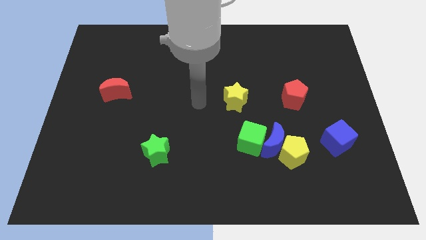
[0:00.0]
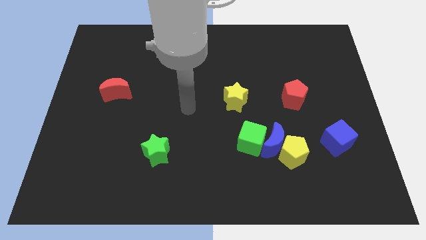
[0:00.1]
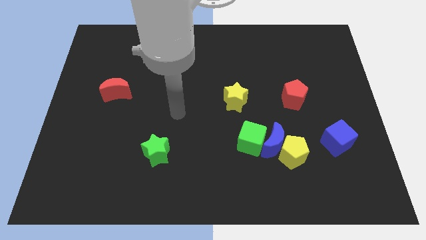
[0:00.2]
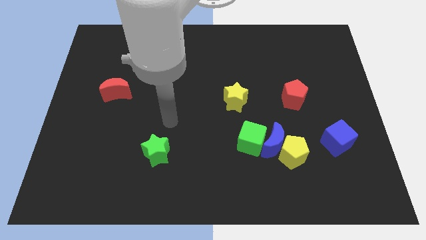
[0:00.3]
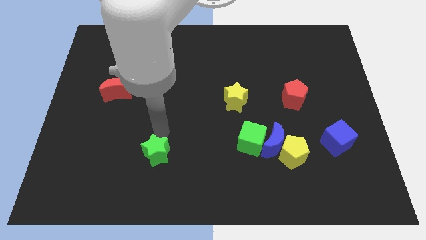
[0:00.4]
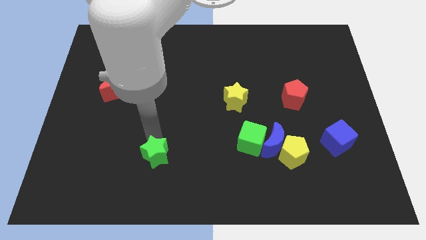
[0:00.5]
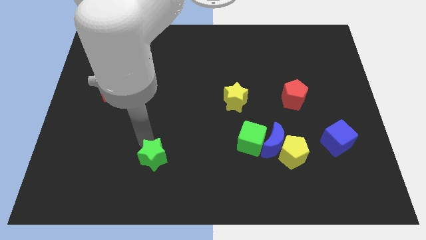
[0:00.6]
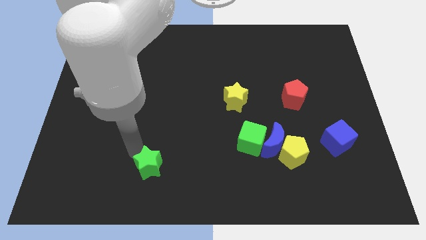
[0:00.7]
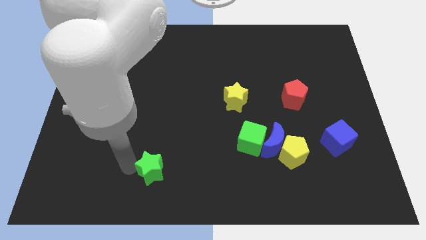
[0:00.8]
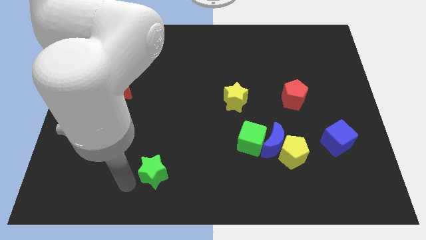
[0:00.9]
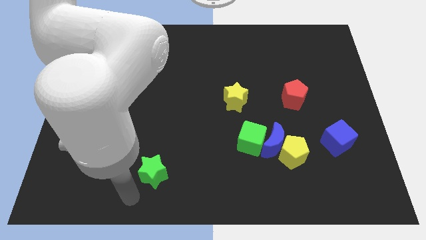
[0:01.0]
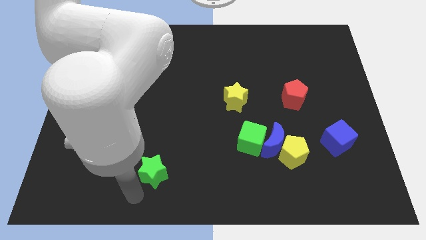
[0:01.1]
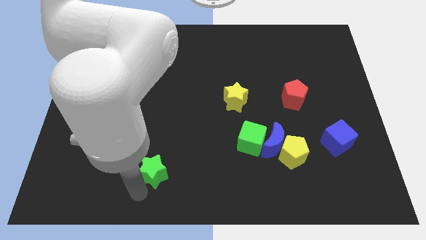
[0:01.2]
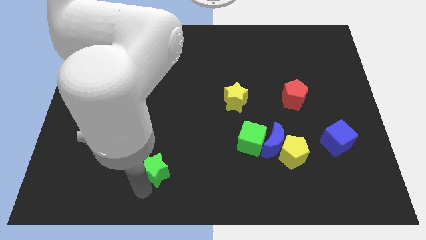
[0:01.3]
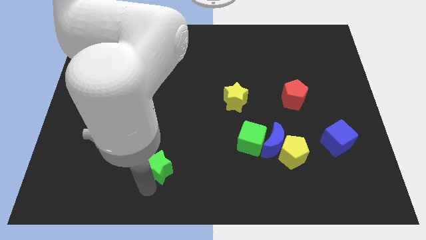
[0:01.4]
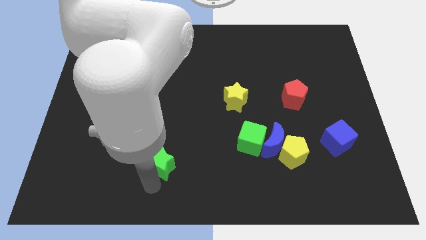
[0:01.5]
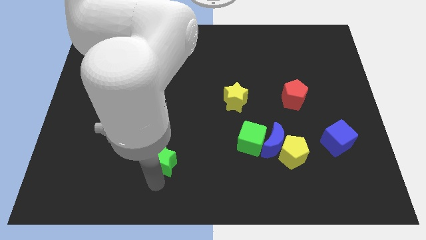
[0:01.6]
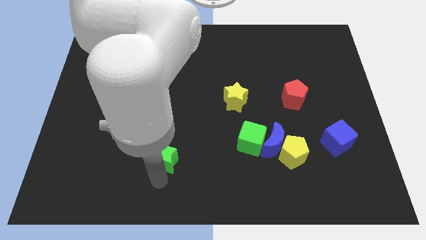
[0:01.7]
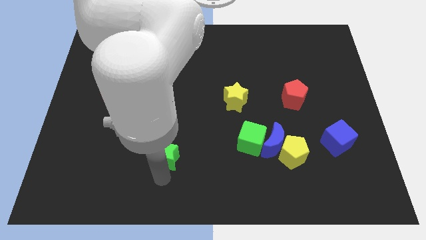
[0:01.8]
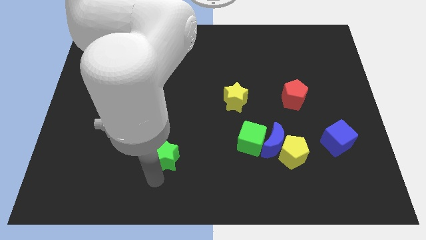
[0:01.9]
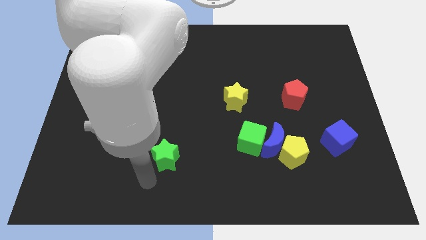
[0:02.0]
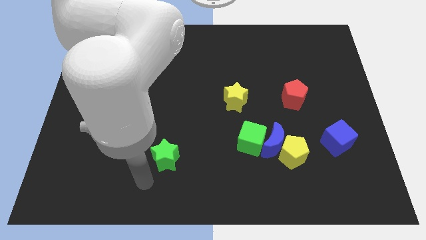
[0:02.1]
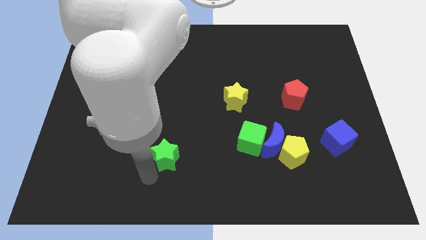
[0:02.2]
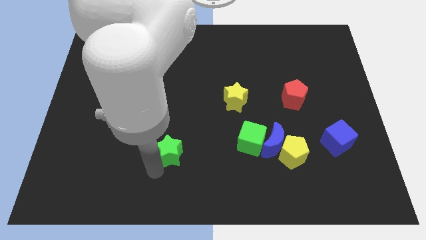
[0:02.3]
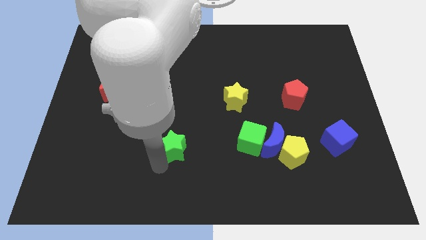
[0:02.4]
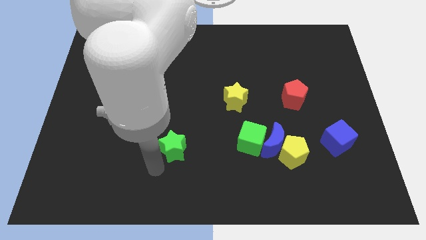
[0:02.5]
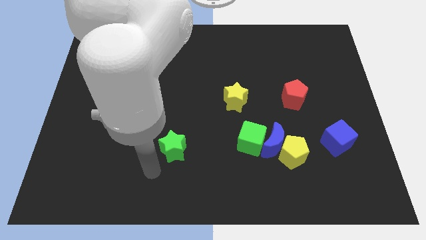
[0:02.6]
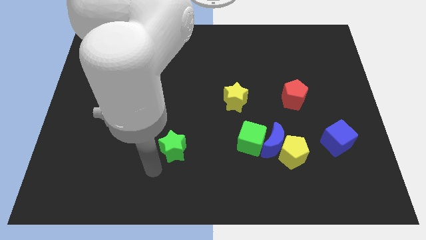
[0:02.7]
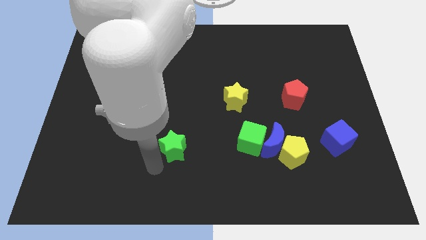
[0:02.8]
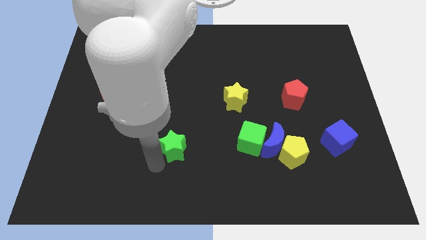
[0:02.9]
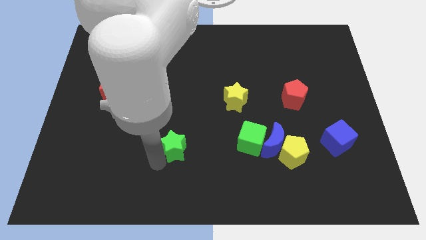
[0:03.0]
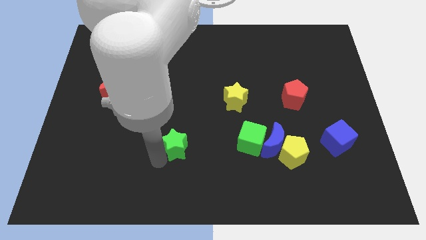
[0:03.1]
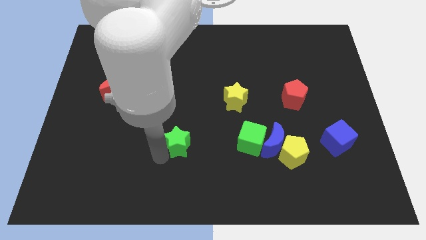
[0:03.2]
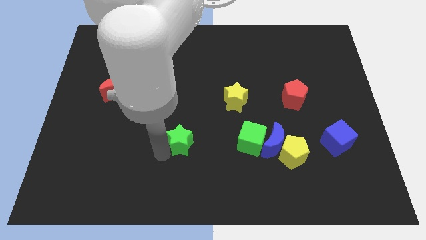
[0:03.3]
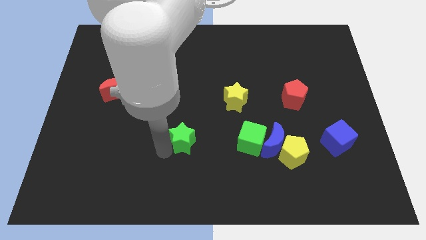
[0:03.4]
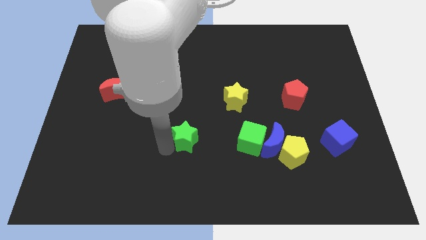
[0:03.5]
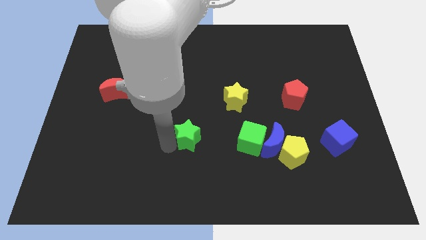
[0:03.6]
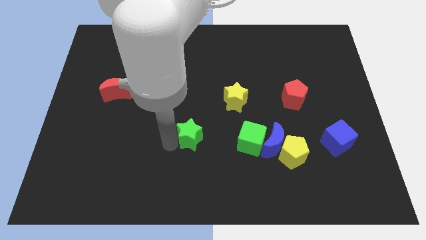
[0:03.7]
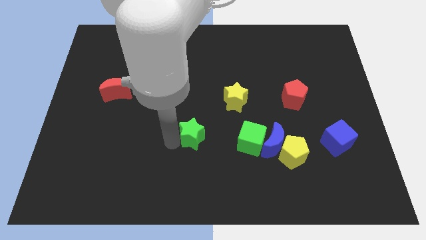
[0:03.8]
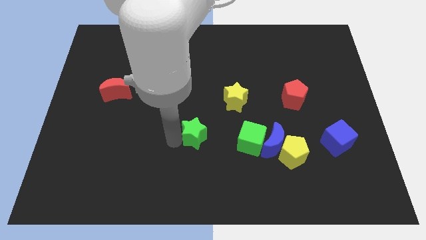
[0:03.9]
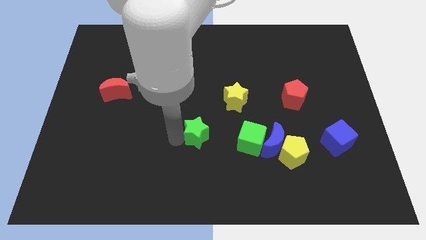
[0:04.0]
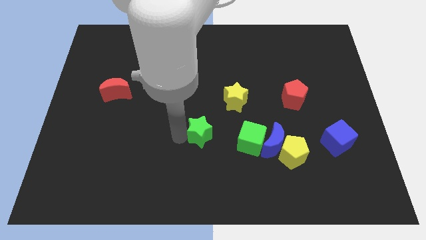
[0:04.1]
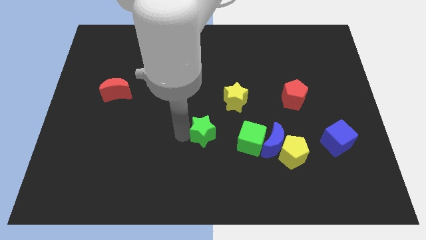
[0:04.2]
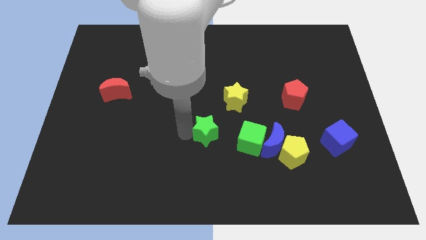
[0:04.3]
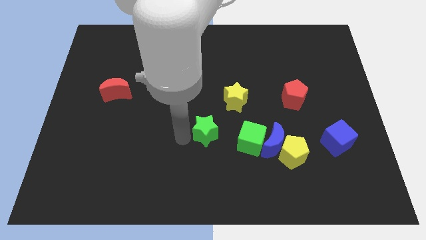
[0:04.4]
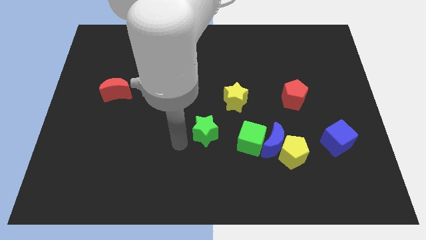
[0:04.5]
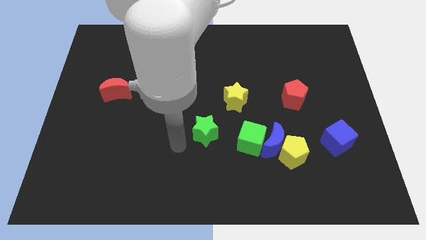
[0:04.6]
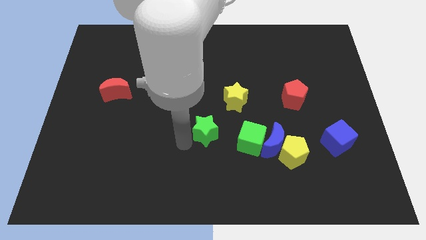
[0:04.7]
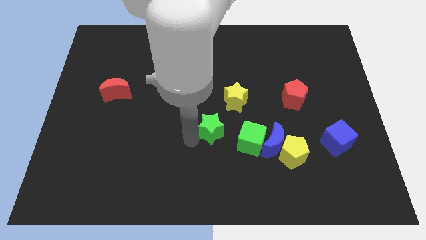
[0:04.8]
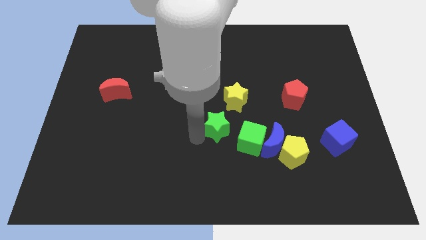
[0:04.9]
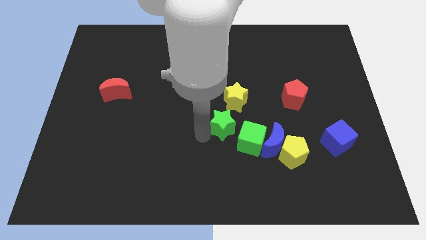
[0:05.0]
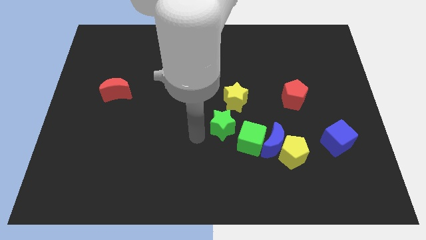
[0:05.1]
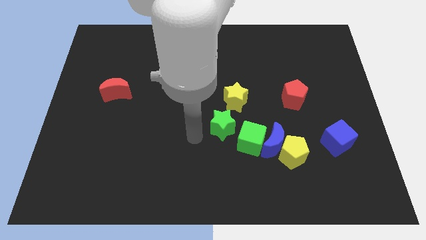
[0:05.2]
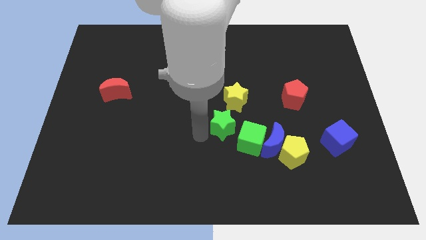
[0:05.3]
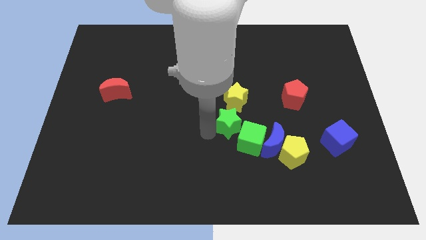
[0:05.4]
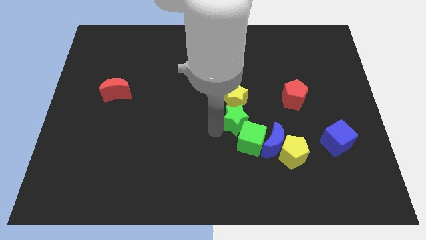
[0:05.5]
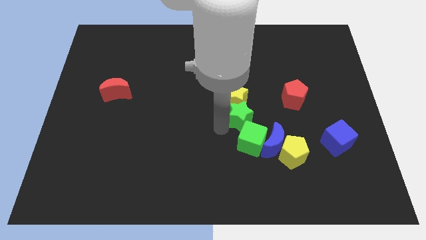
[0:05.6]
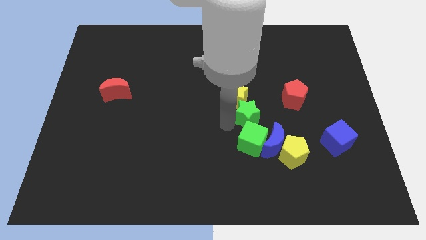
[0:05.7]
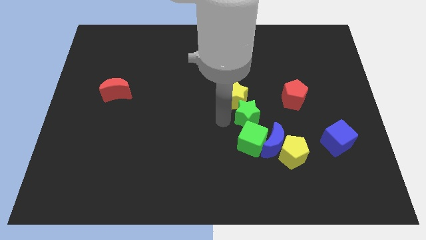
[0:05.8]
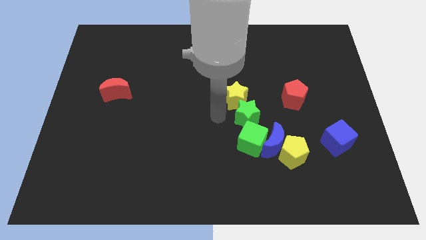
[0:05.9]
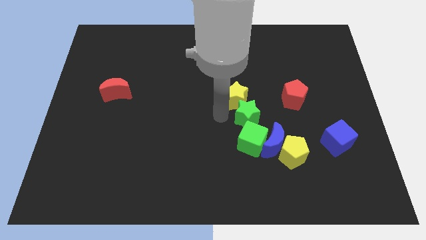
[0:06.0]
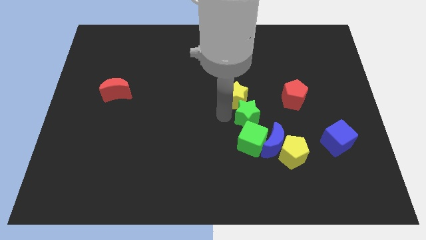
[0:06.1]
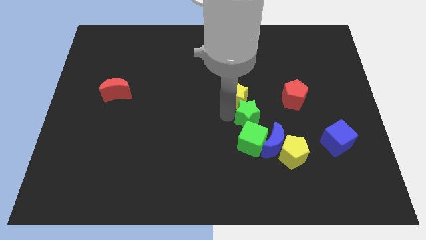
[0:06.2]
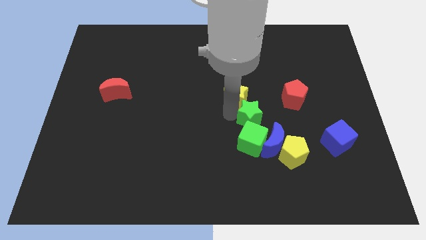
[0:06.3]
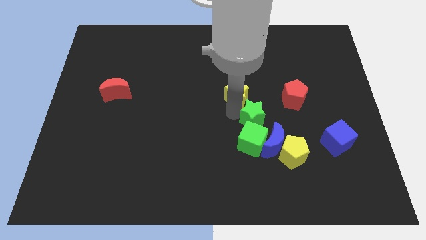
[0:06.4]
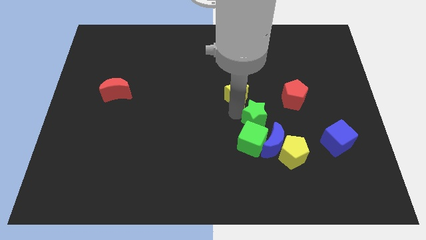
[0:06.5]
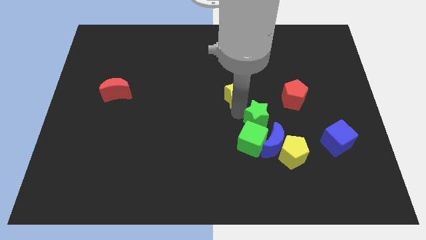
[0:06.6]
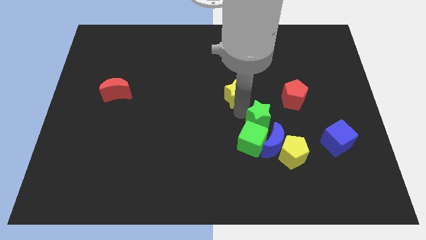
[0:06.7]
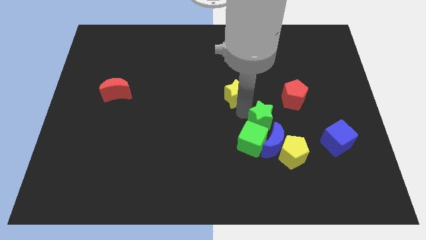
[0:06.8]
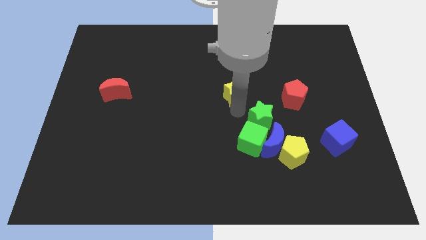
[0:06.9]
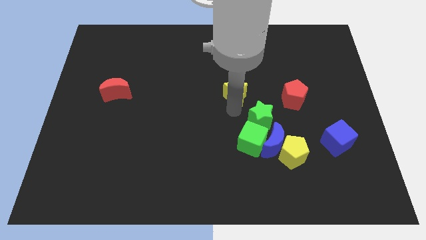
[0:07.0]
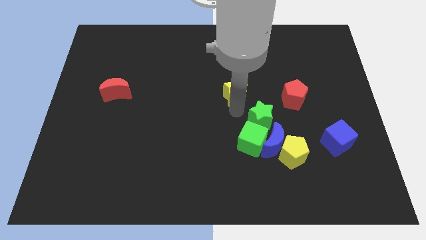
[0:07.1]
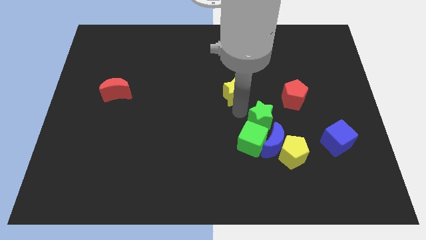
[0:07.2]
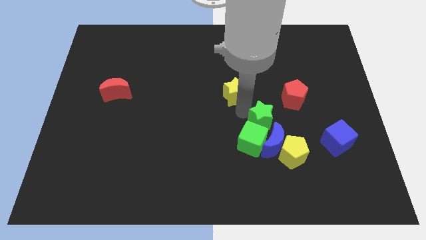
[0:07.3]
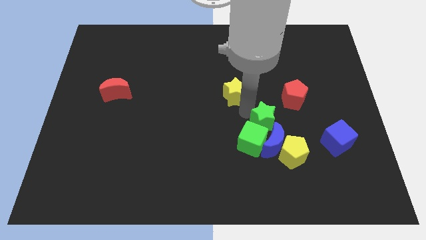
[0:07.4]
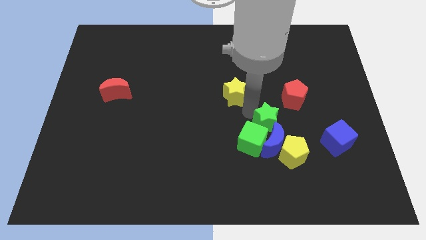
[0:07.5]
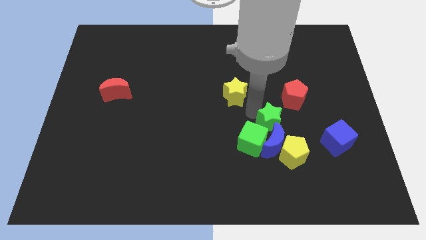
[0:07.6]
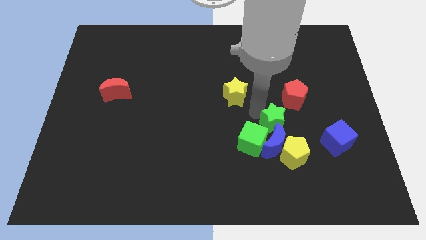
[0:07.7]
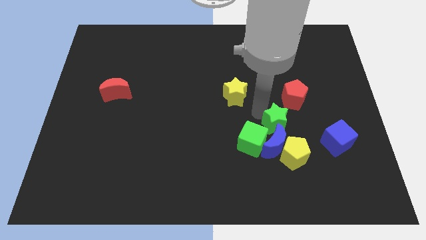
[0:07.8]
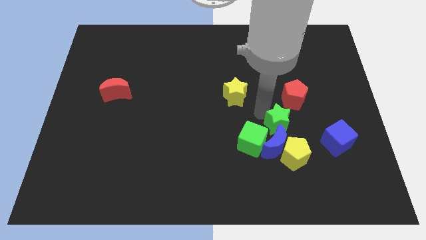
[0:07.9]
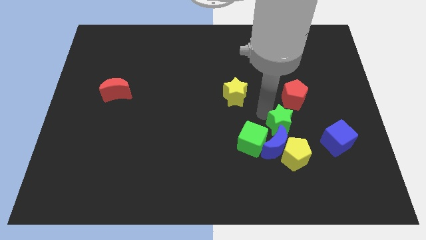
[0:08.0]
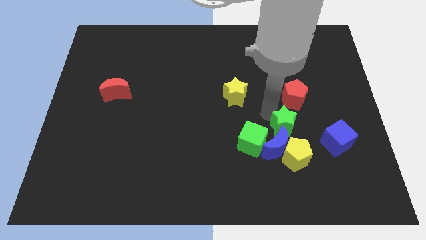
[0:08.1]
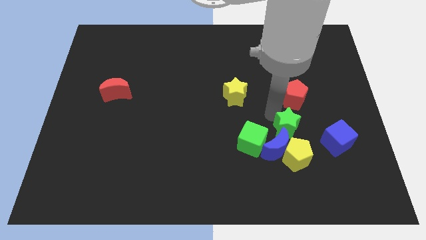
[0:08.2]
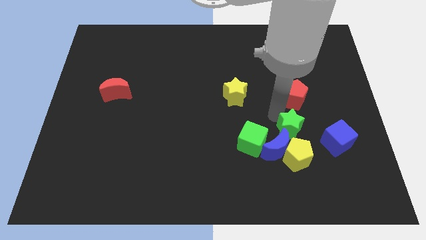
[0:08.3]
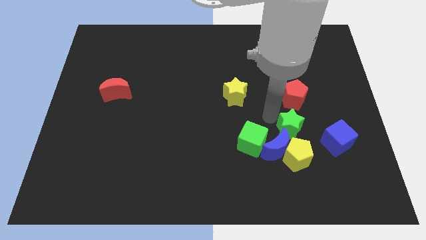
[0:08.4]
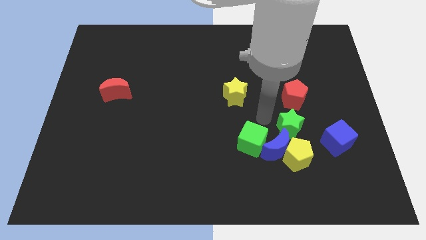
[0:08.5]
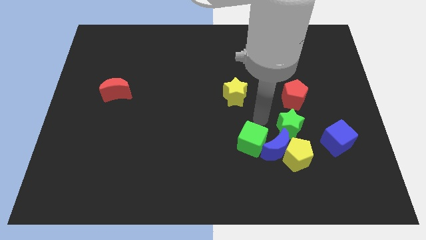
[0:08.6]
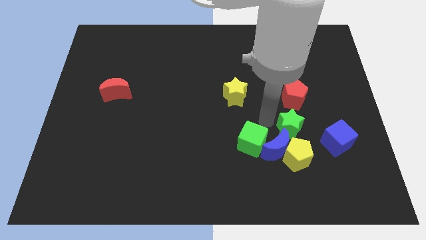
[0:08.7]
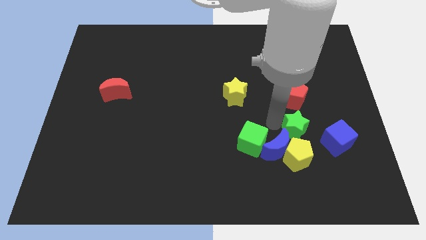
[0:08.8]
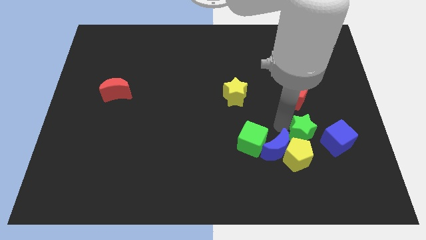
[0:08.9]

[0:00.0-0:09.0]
slide the green star to the top right of the yellow pentagon
